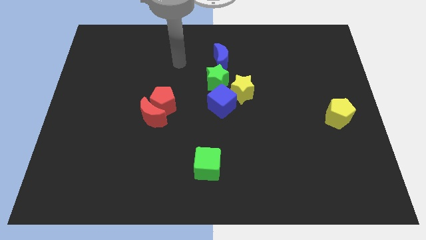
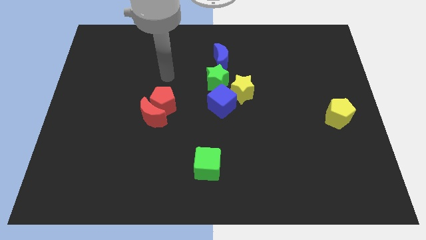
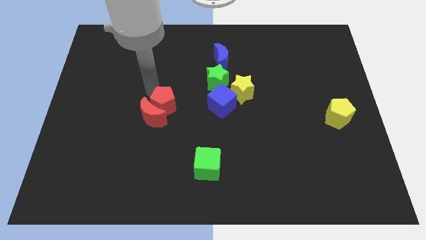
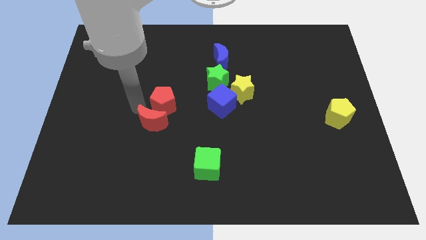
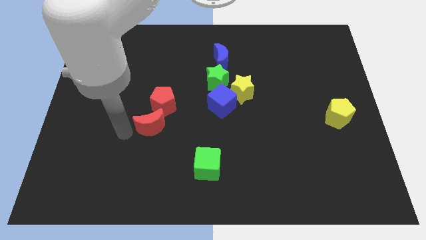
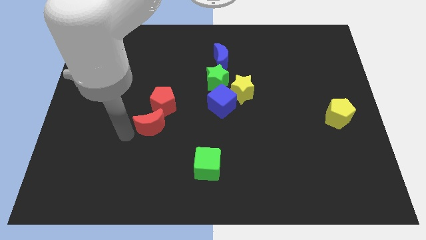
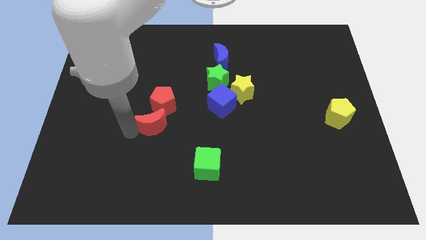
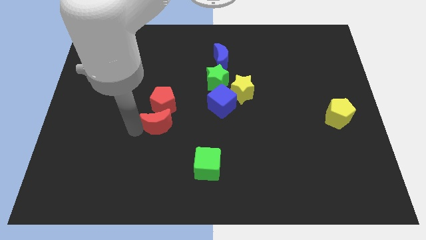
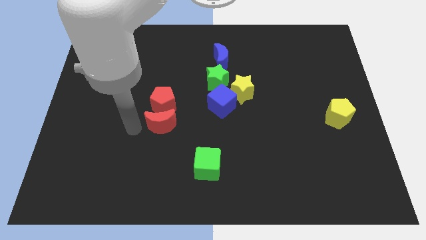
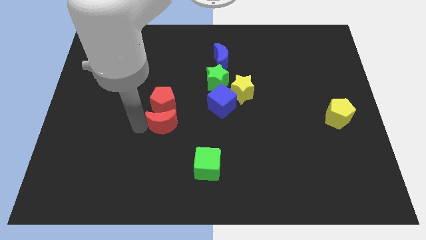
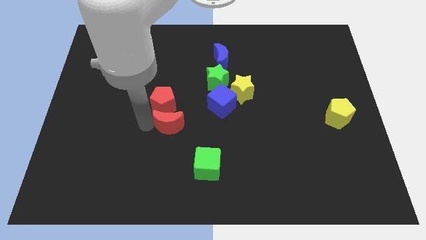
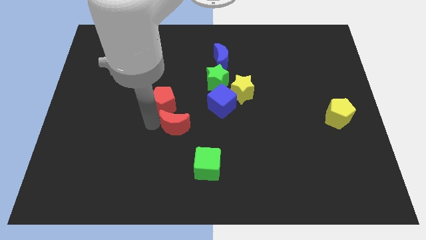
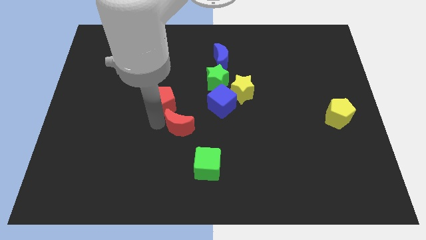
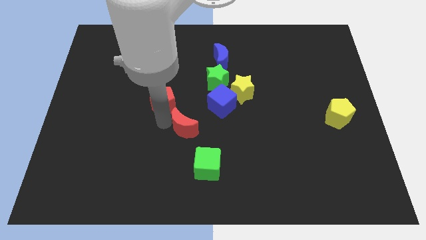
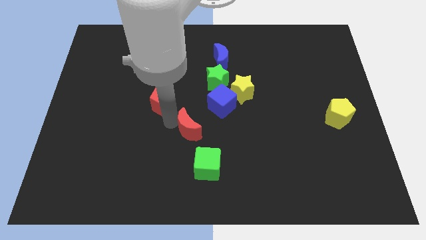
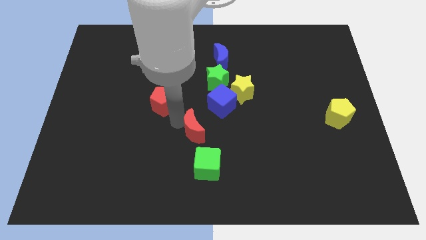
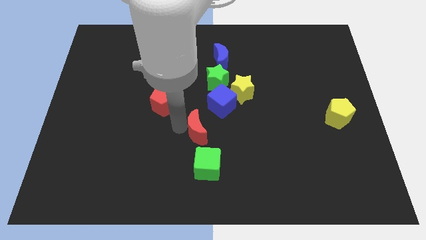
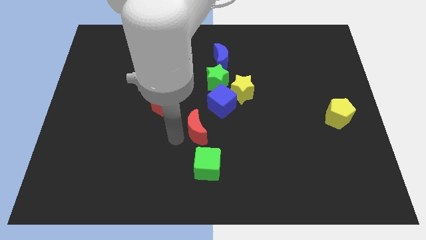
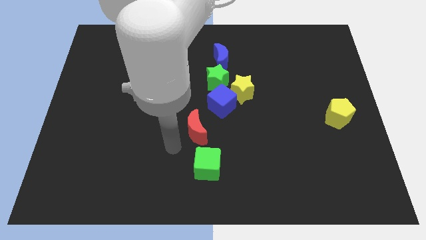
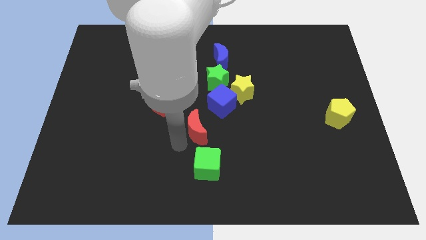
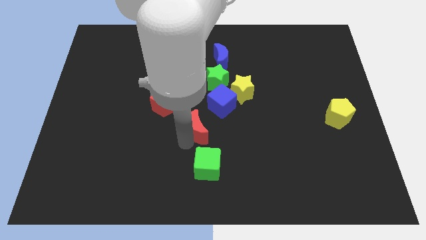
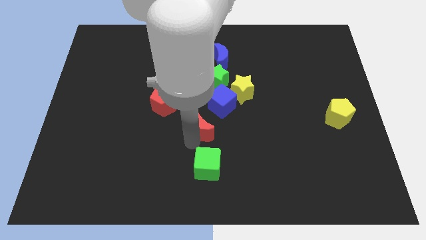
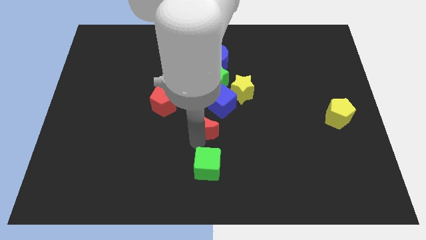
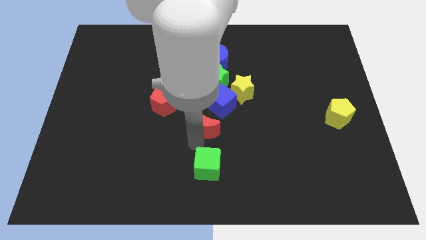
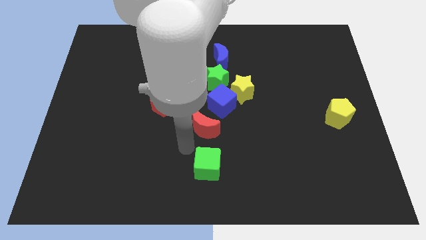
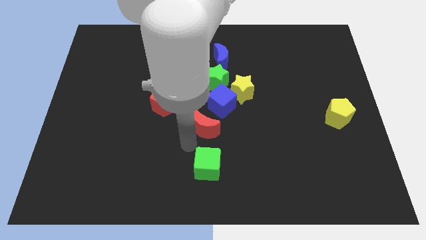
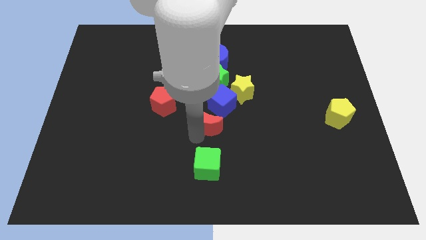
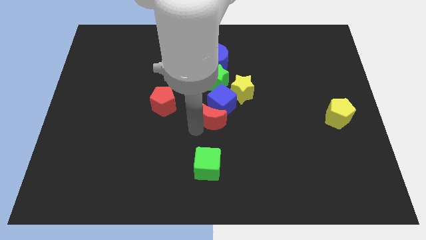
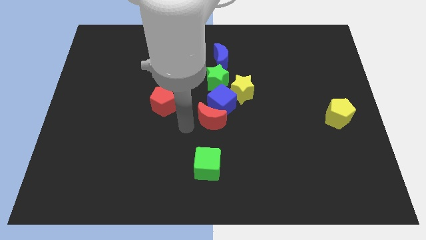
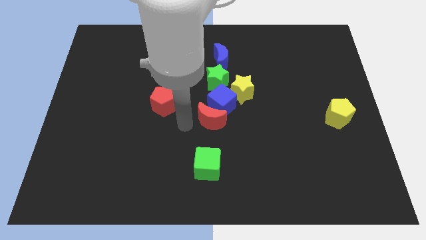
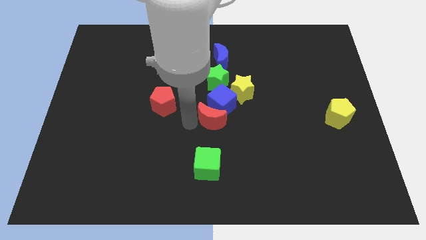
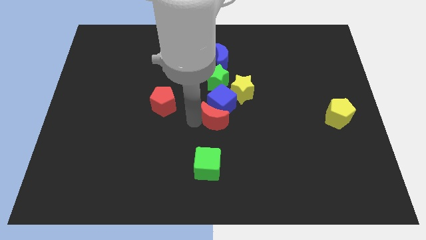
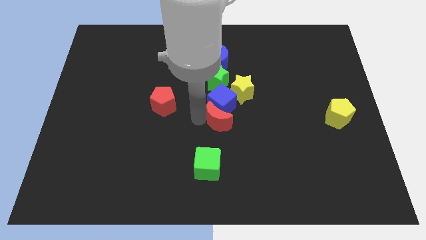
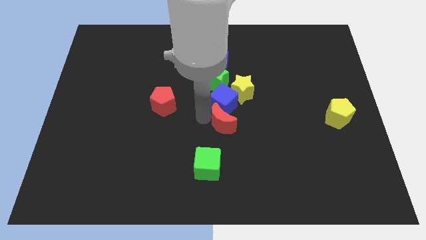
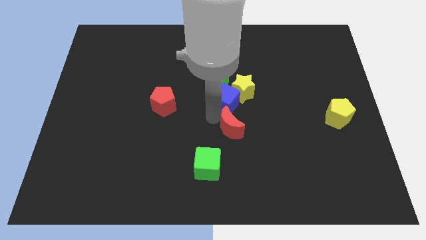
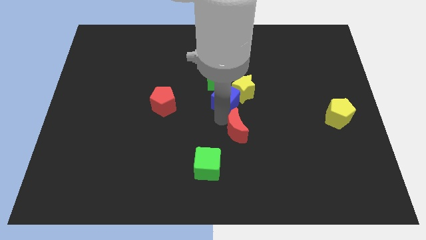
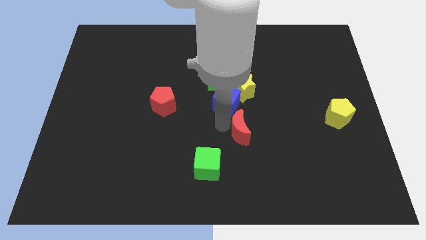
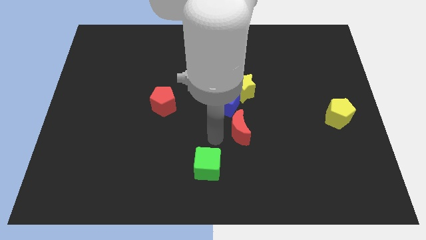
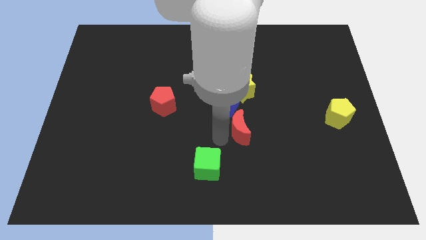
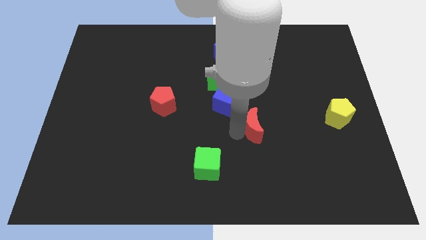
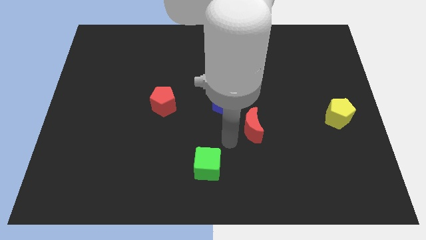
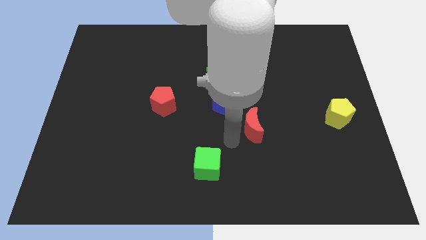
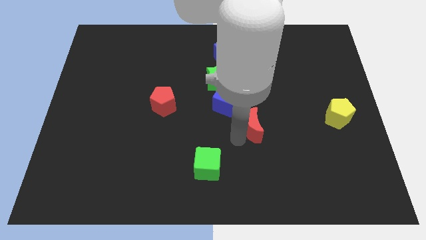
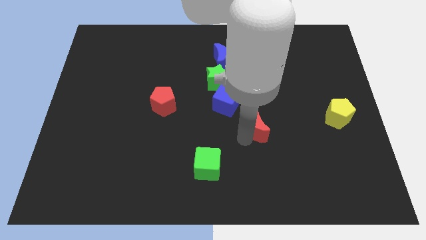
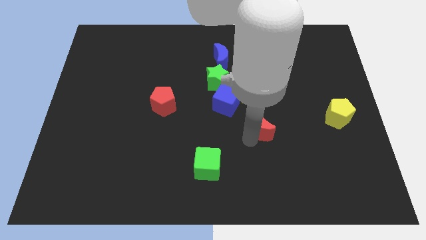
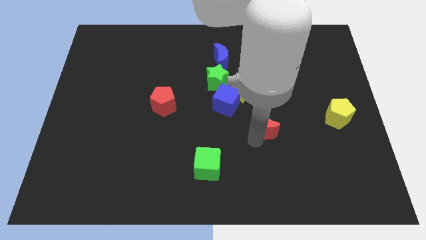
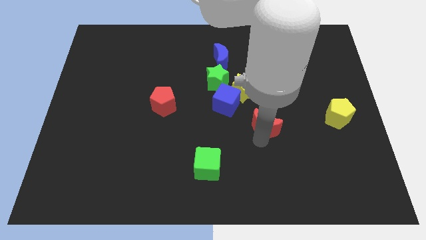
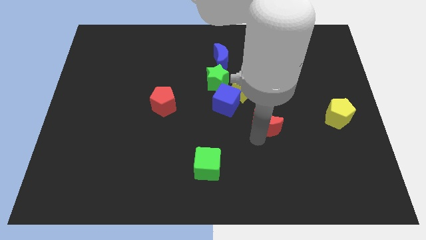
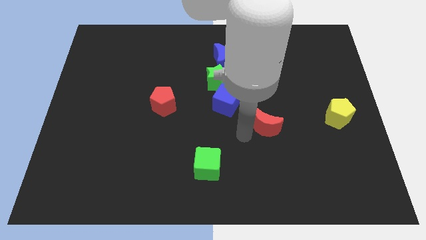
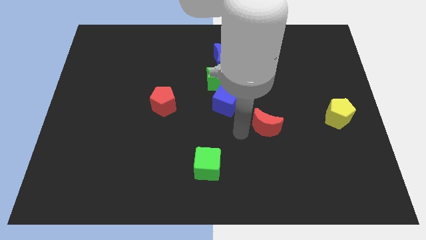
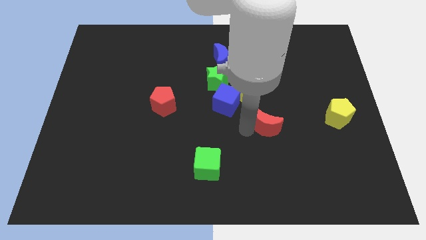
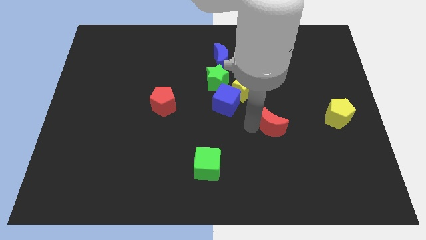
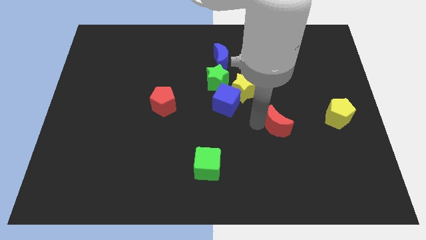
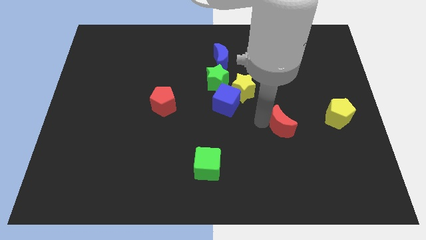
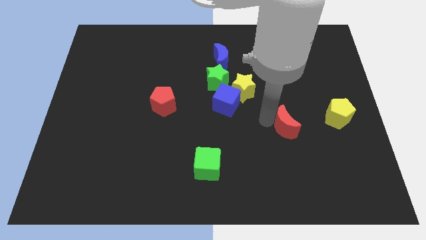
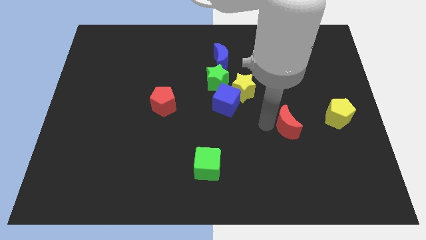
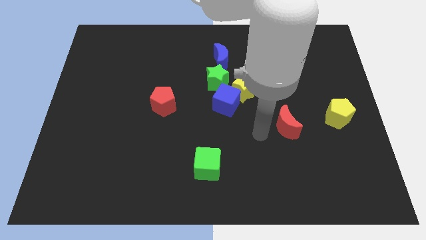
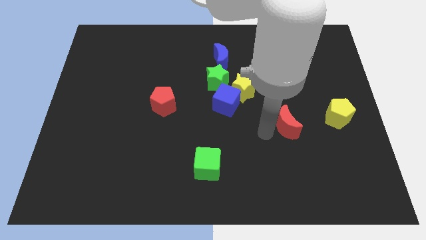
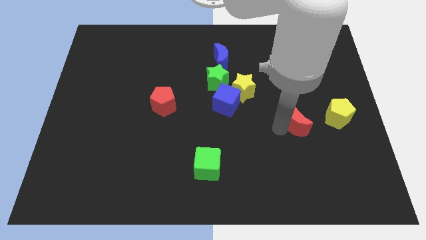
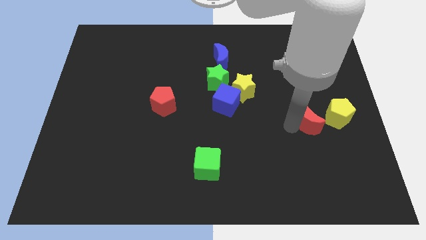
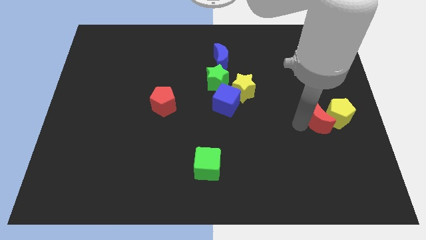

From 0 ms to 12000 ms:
move the red moon next to the yellow pentagon

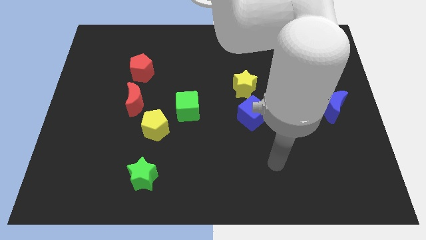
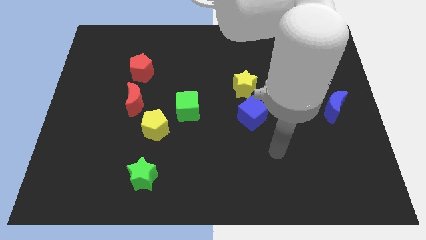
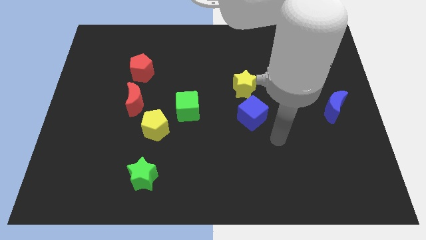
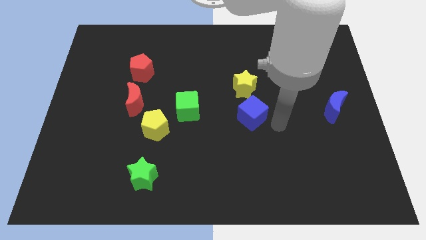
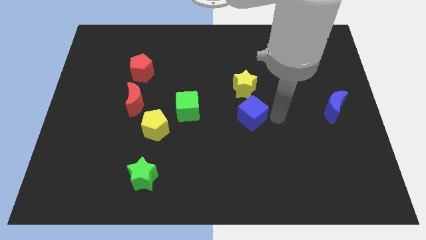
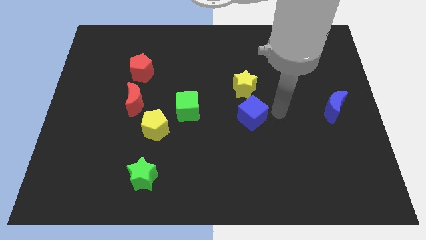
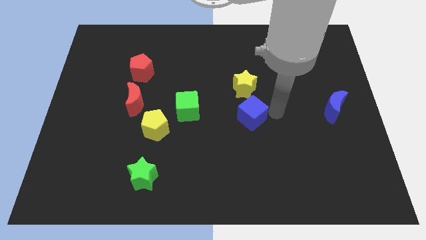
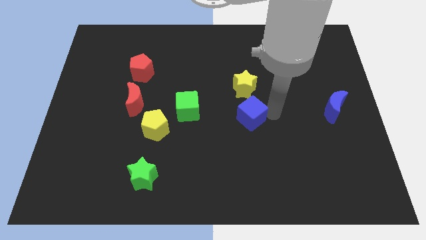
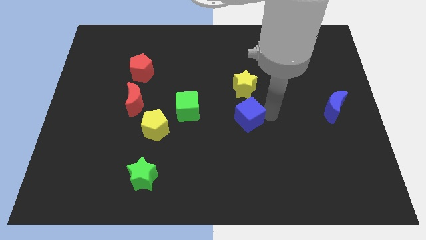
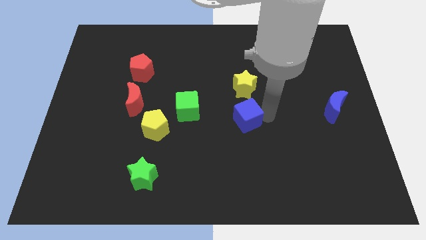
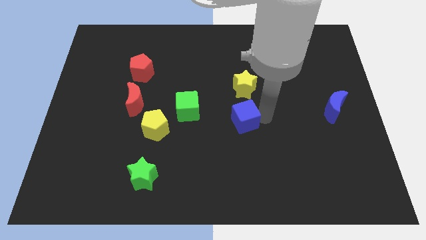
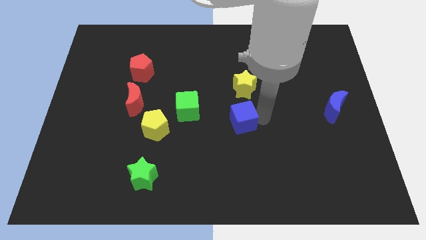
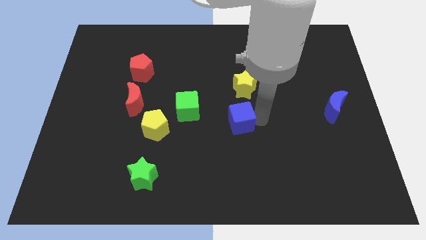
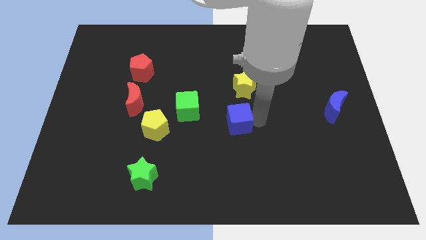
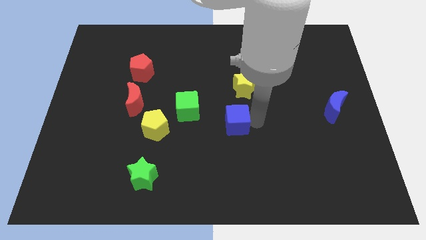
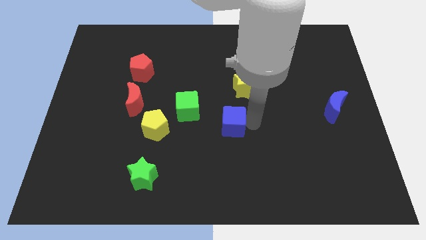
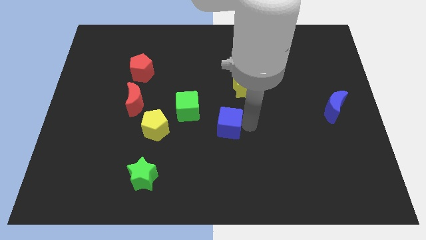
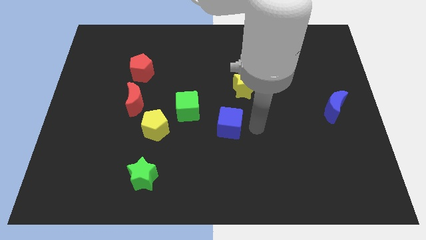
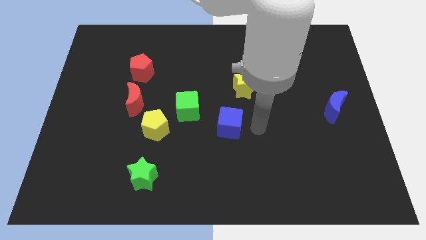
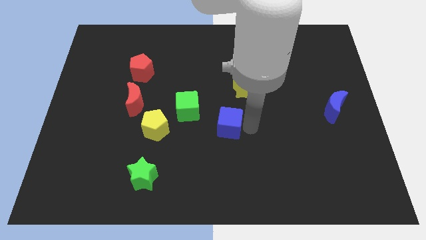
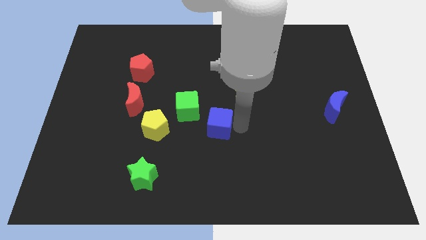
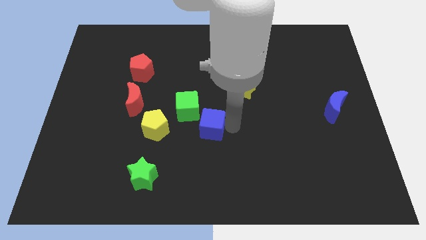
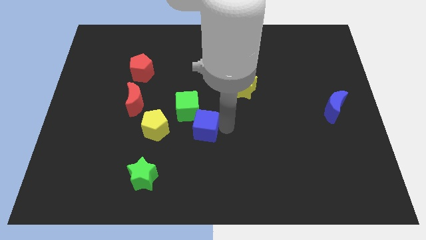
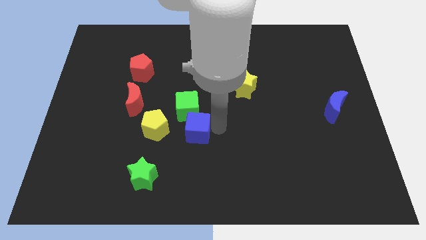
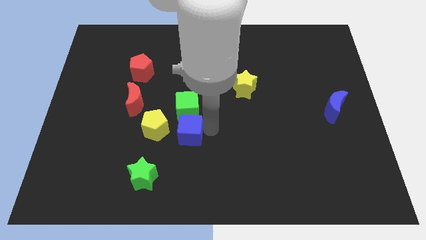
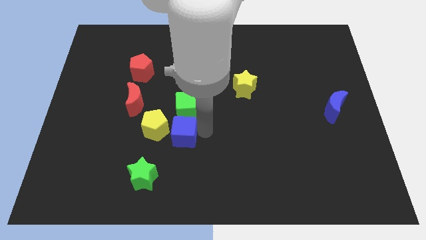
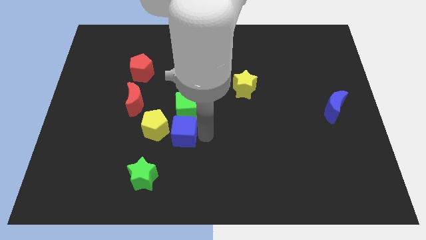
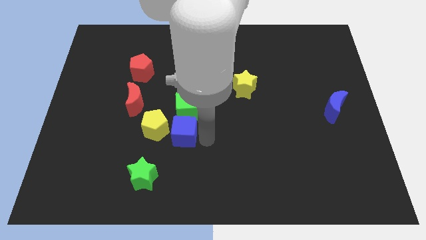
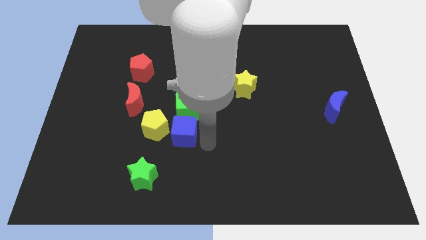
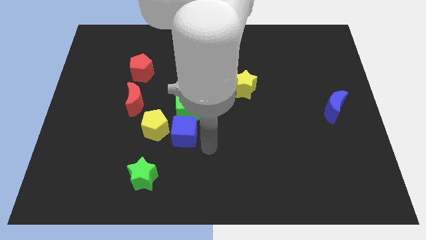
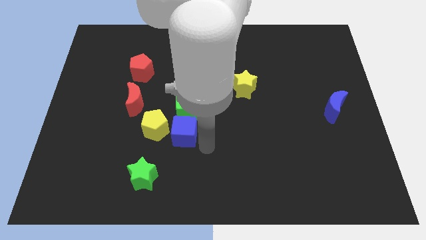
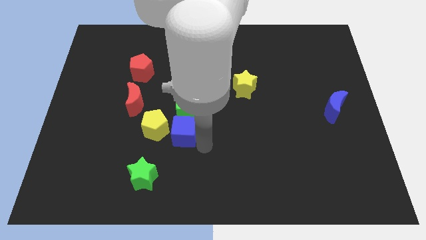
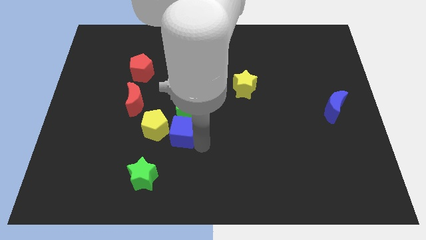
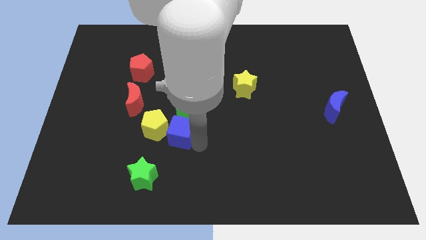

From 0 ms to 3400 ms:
put the blue cube towards the yellow pentagon
